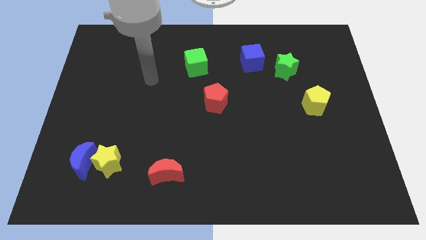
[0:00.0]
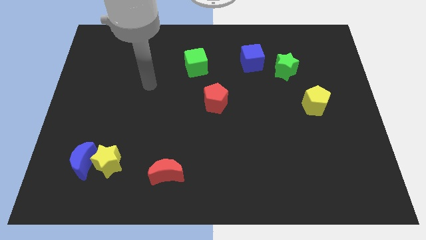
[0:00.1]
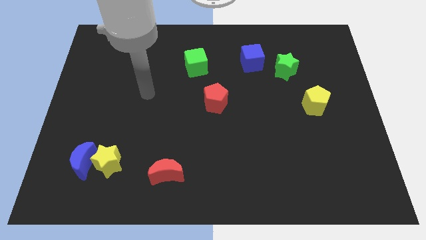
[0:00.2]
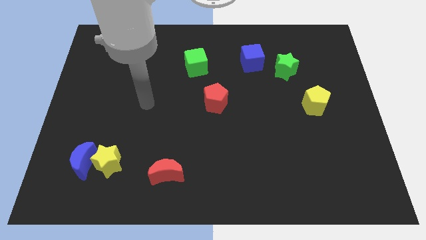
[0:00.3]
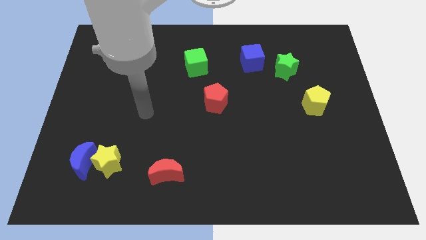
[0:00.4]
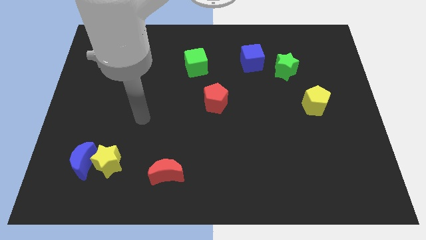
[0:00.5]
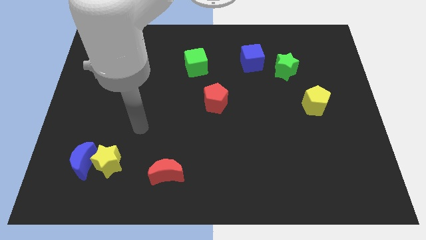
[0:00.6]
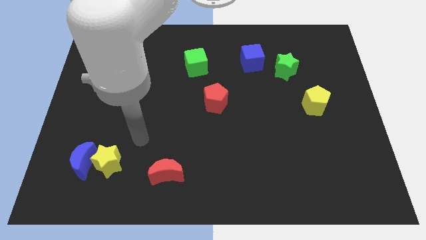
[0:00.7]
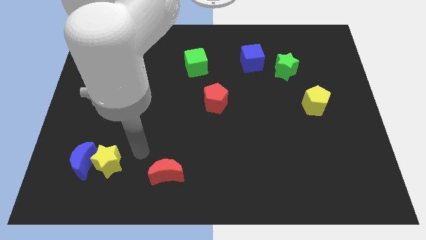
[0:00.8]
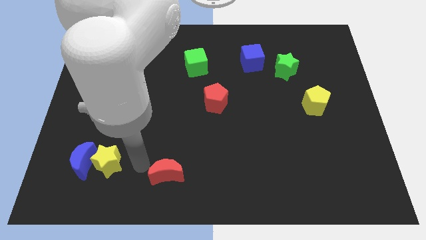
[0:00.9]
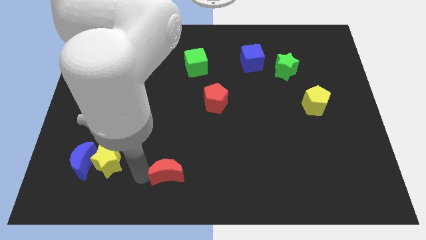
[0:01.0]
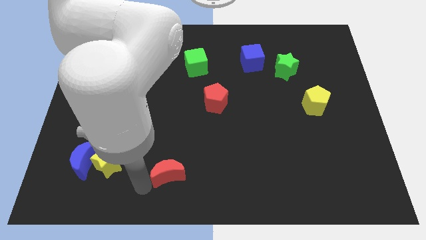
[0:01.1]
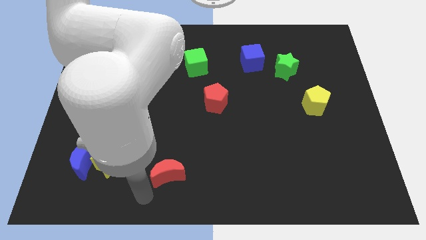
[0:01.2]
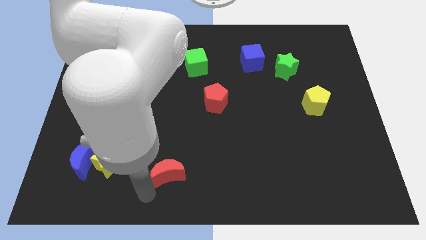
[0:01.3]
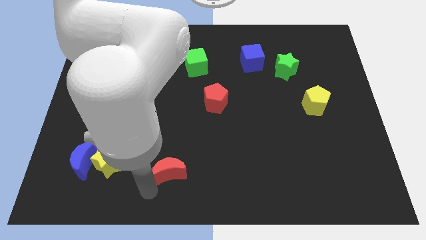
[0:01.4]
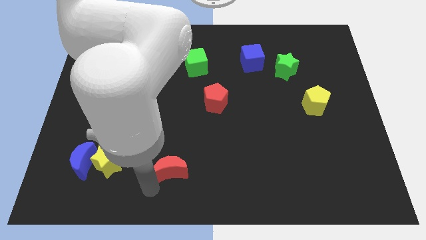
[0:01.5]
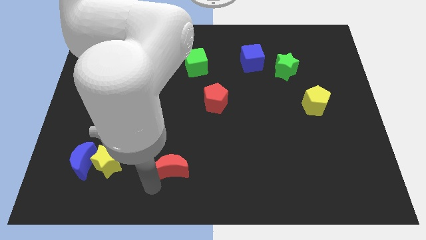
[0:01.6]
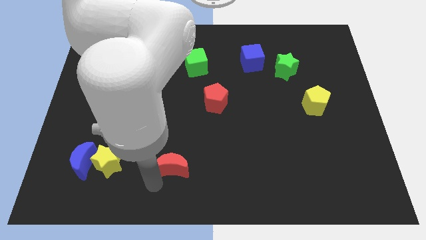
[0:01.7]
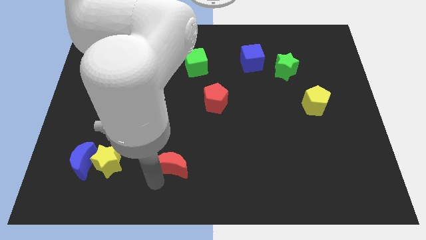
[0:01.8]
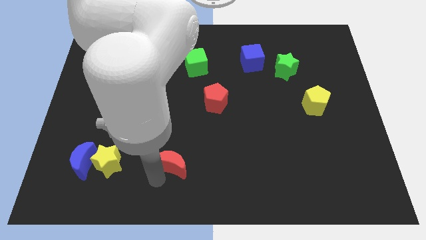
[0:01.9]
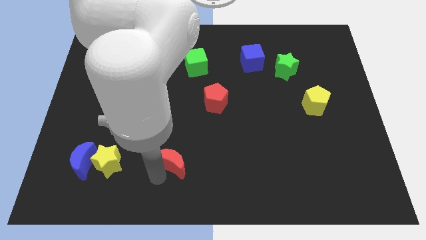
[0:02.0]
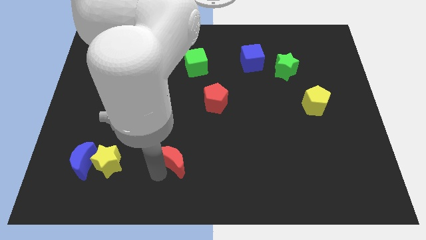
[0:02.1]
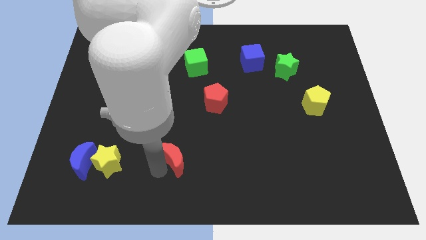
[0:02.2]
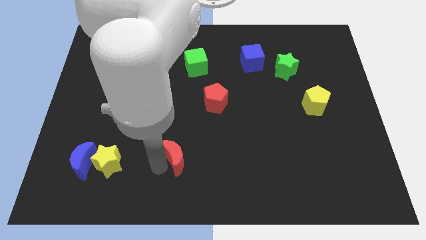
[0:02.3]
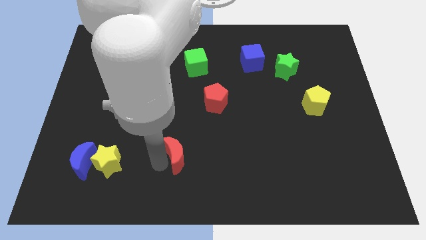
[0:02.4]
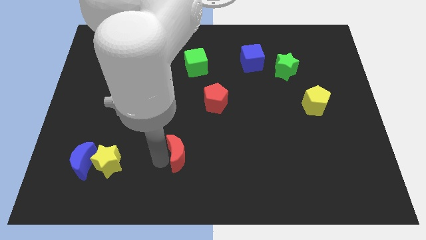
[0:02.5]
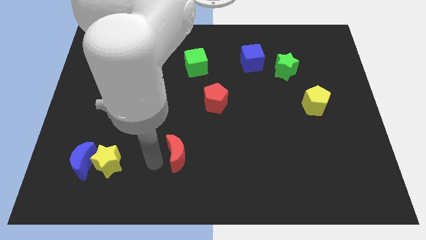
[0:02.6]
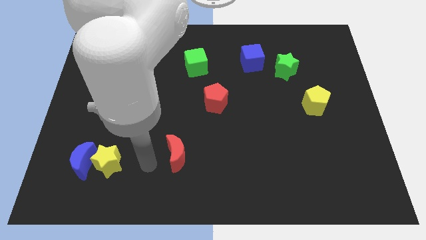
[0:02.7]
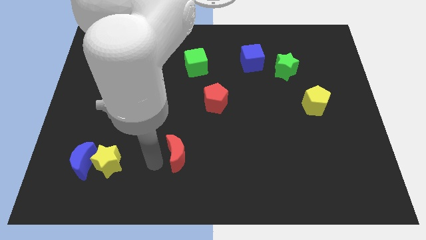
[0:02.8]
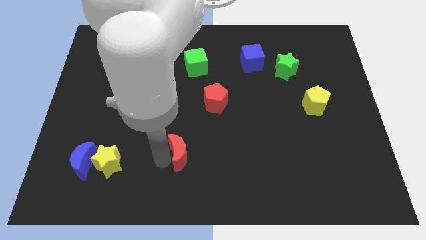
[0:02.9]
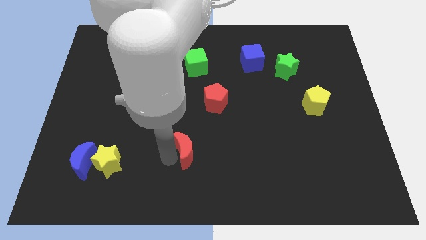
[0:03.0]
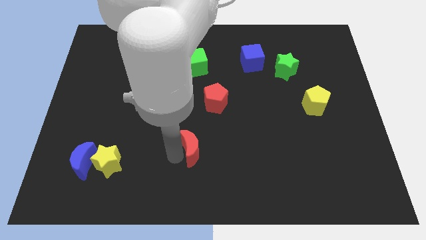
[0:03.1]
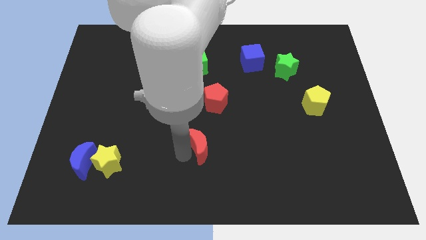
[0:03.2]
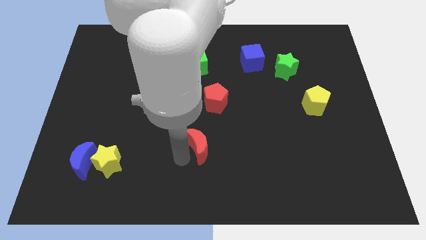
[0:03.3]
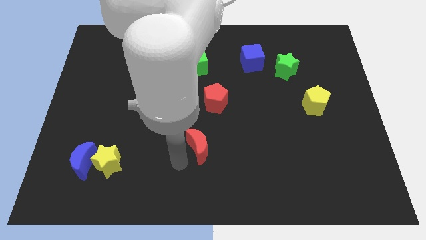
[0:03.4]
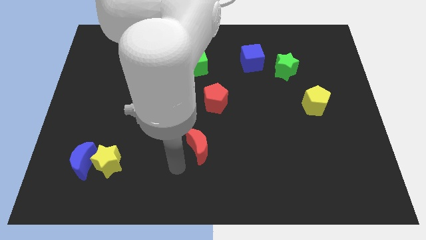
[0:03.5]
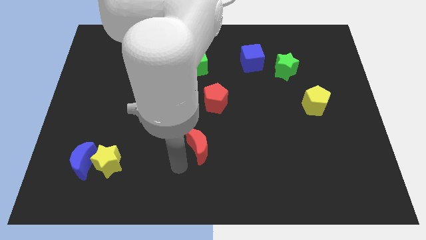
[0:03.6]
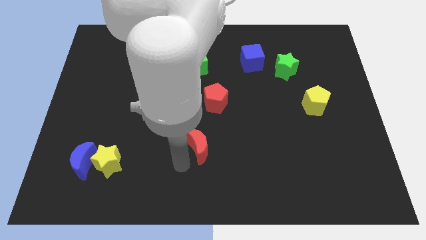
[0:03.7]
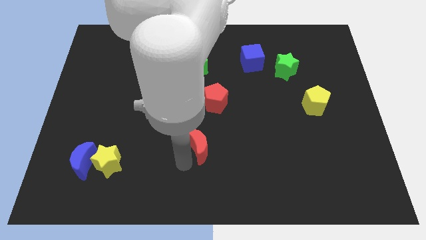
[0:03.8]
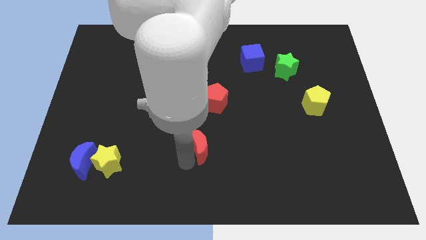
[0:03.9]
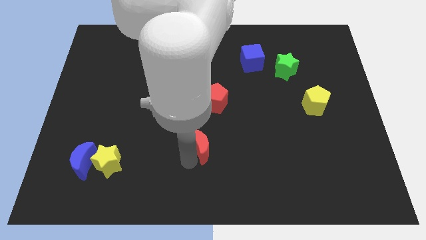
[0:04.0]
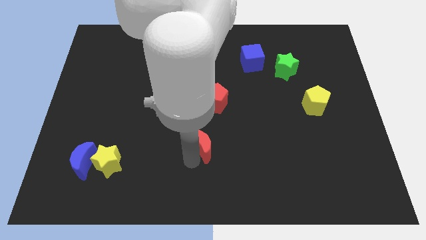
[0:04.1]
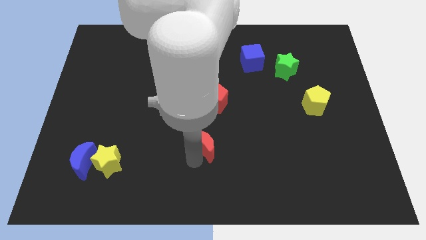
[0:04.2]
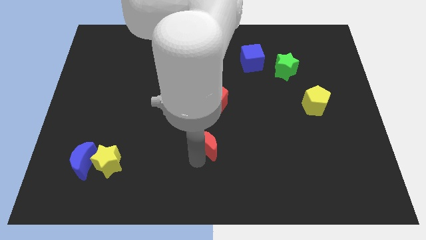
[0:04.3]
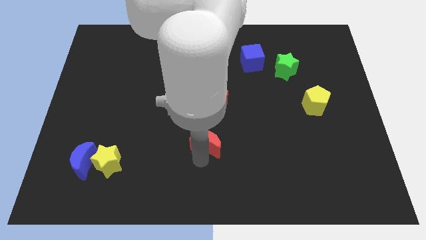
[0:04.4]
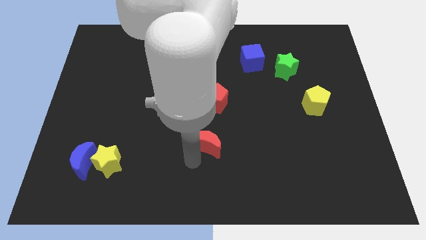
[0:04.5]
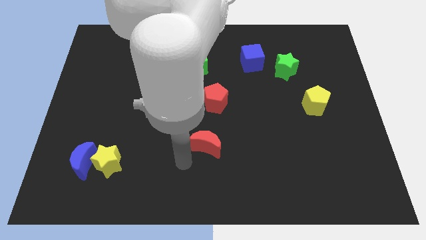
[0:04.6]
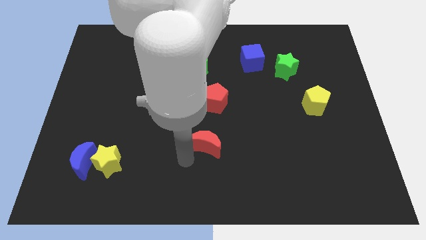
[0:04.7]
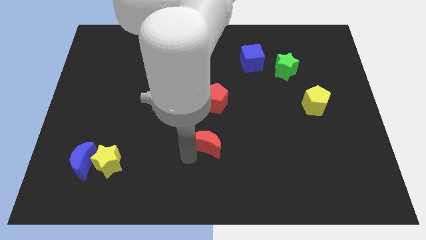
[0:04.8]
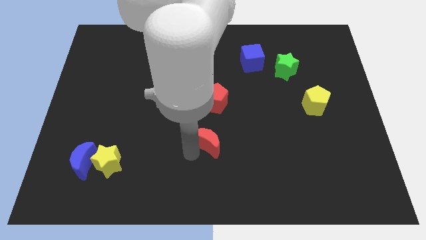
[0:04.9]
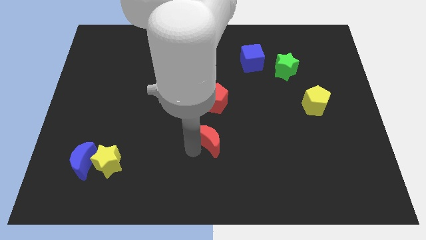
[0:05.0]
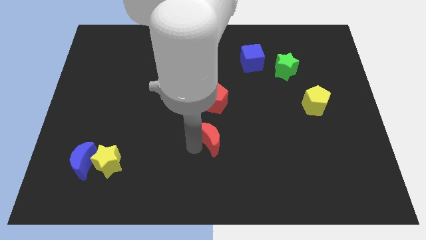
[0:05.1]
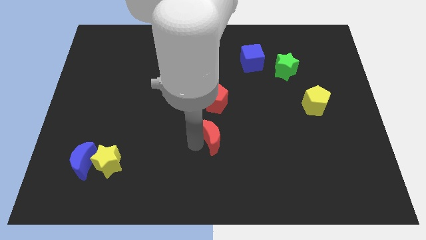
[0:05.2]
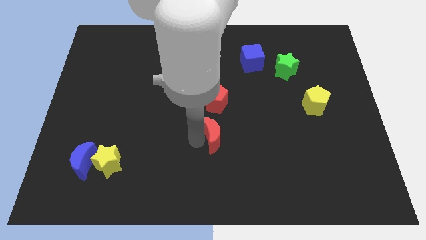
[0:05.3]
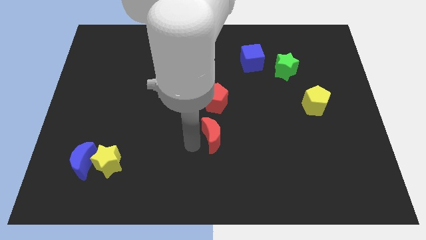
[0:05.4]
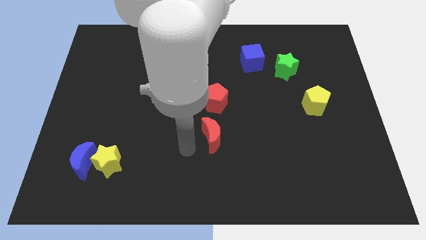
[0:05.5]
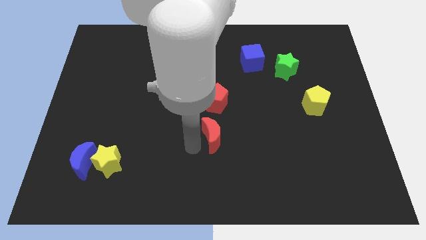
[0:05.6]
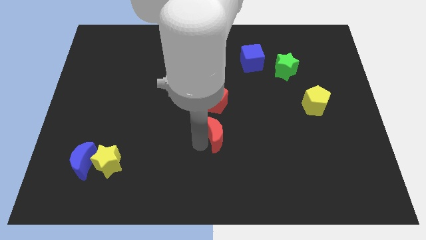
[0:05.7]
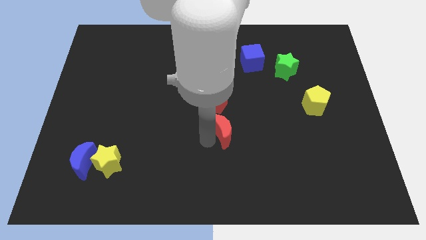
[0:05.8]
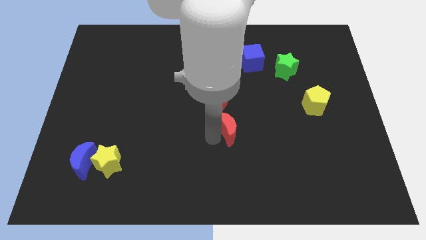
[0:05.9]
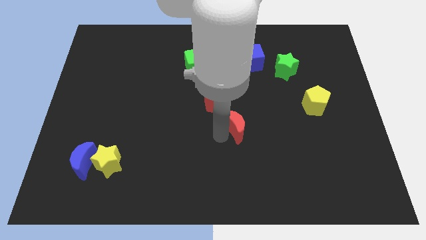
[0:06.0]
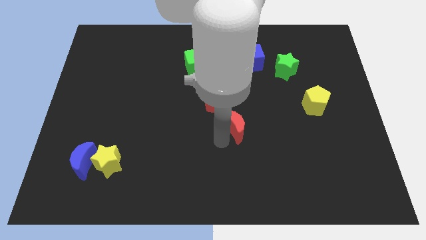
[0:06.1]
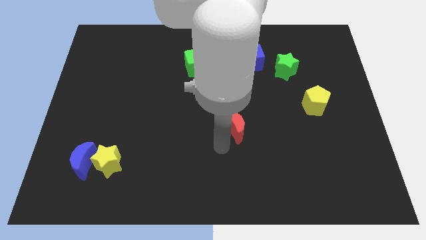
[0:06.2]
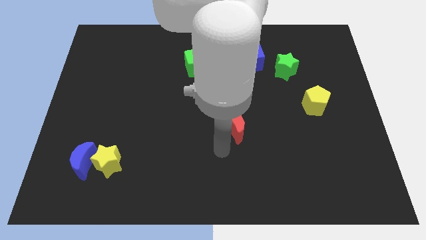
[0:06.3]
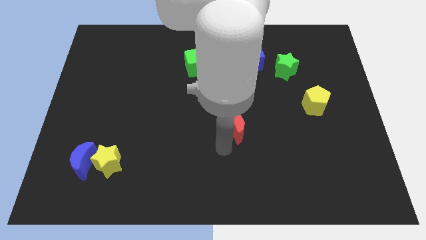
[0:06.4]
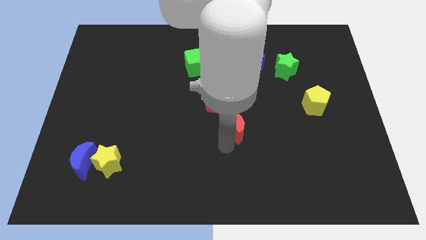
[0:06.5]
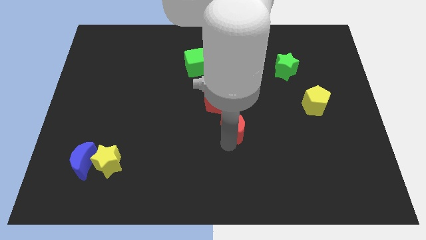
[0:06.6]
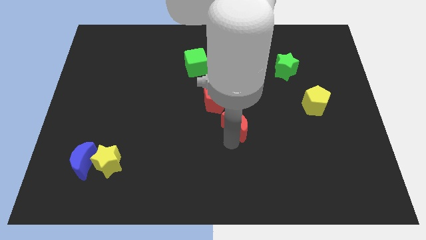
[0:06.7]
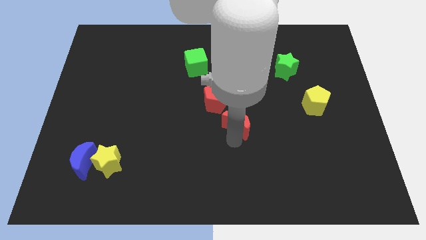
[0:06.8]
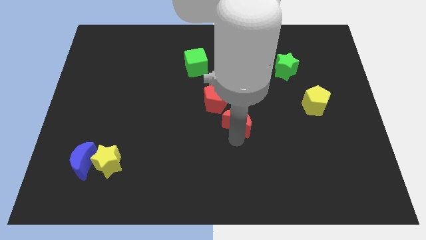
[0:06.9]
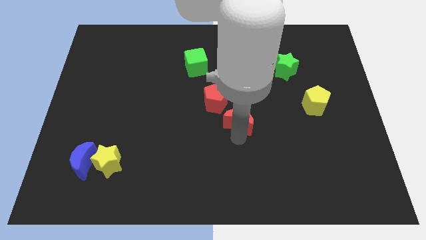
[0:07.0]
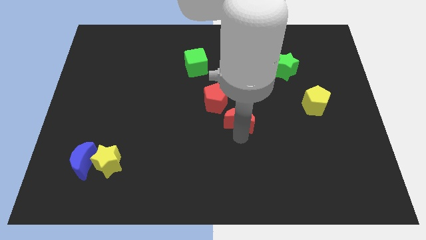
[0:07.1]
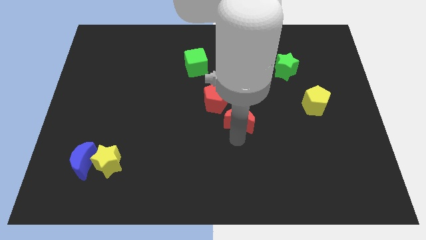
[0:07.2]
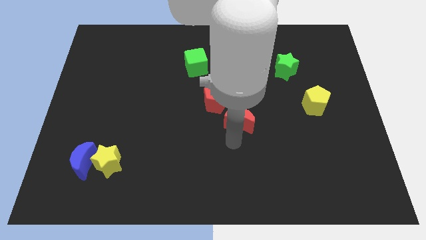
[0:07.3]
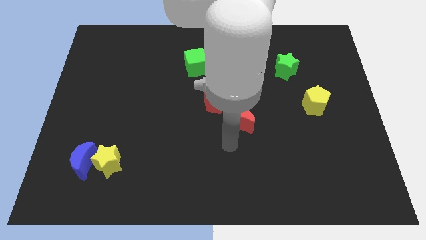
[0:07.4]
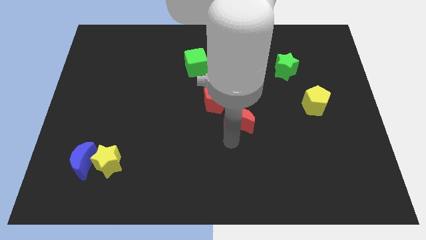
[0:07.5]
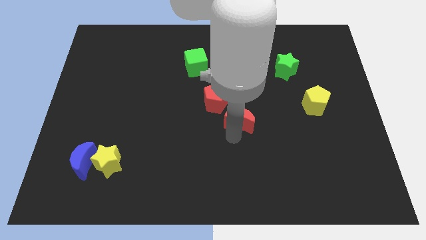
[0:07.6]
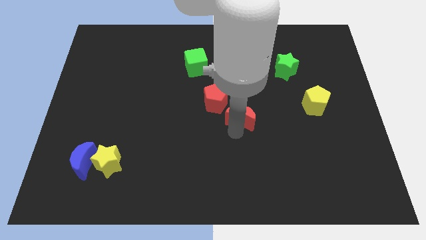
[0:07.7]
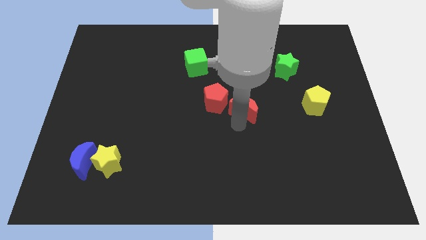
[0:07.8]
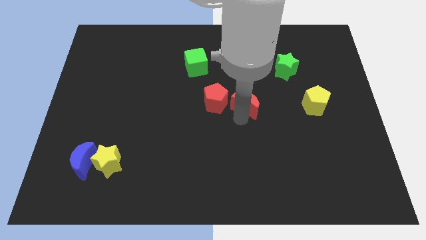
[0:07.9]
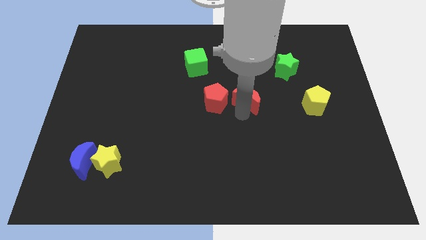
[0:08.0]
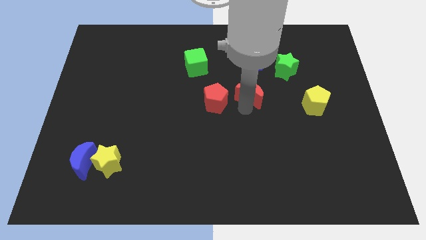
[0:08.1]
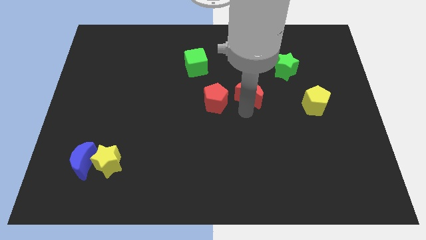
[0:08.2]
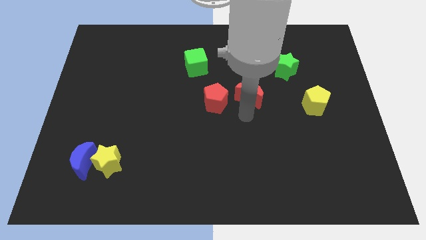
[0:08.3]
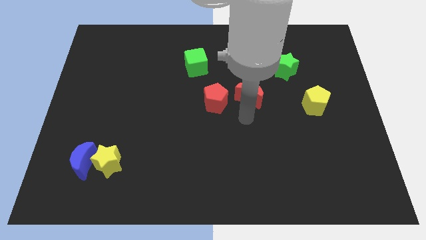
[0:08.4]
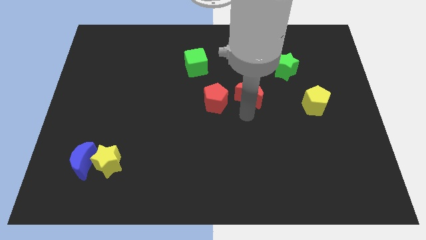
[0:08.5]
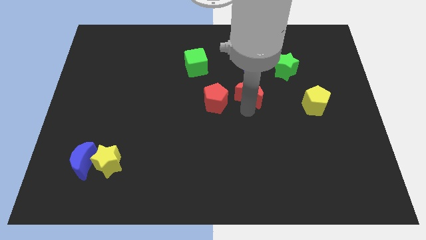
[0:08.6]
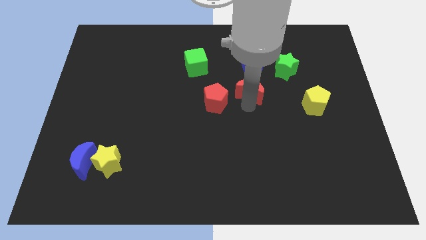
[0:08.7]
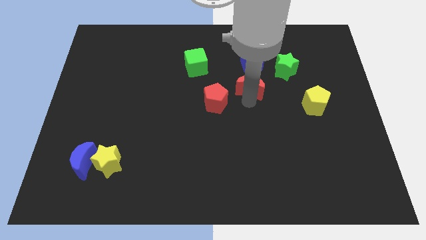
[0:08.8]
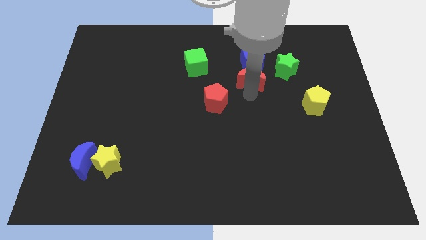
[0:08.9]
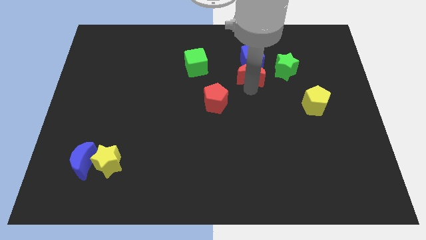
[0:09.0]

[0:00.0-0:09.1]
slide the red moon towards the blue cube
